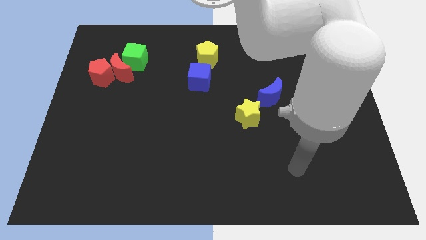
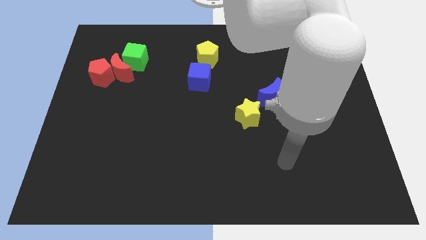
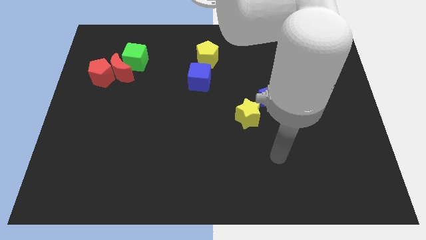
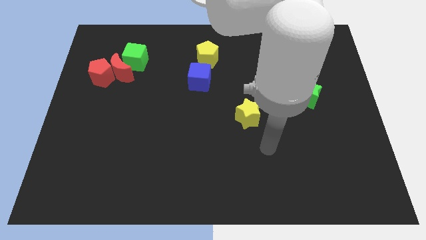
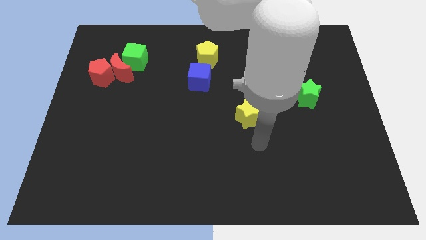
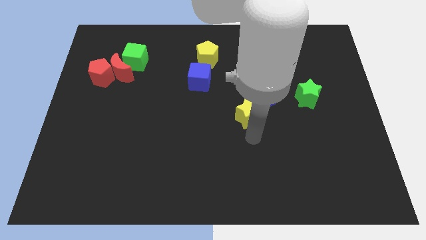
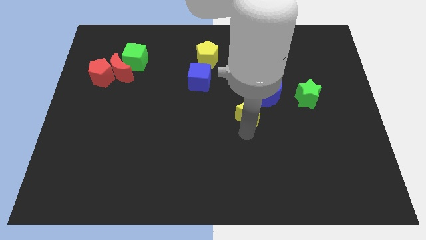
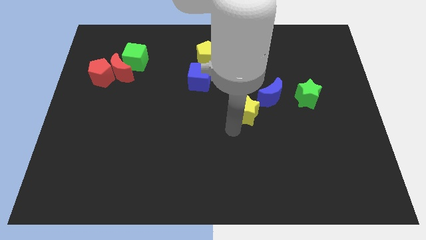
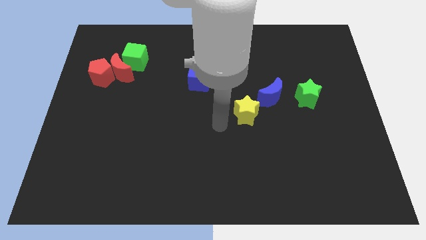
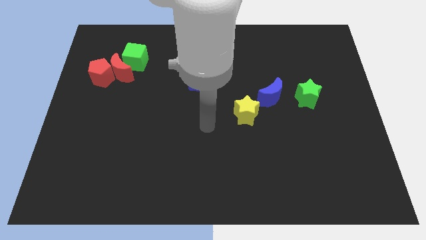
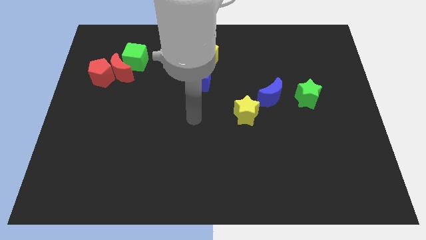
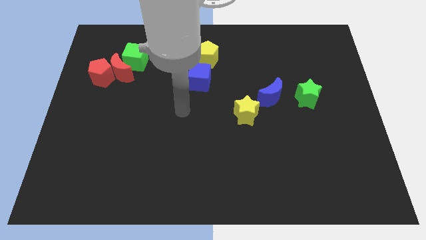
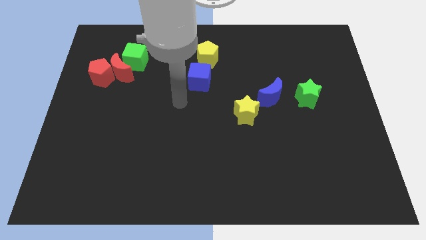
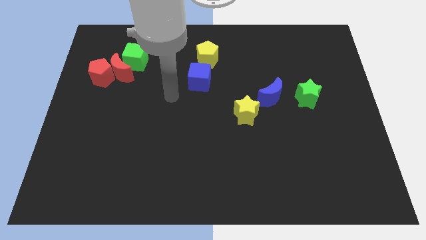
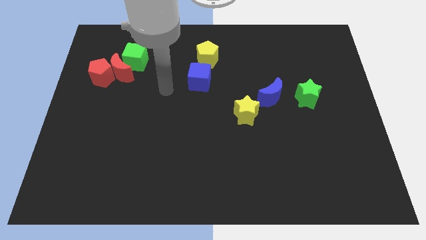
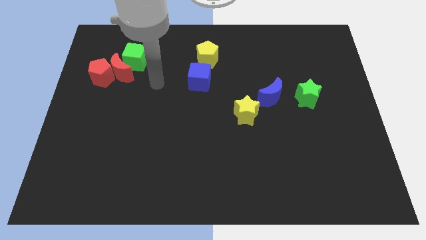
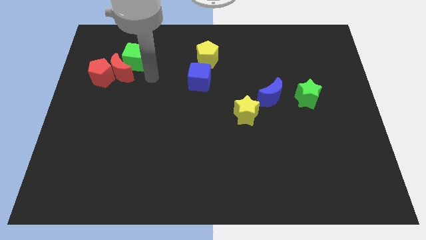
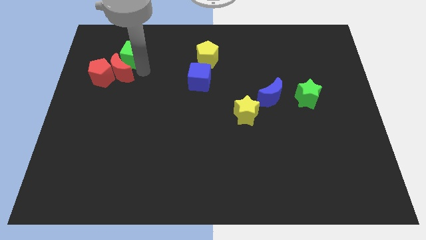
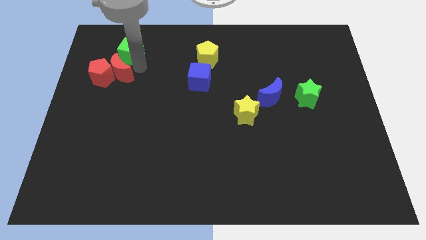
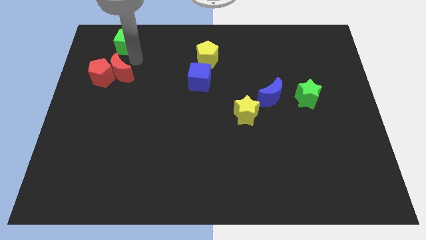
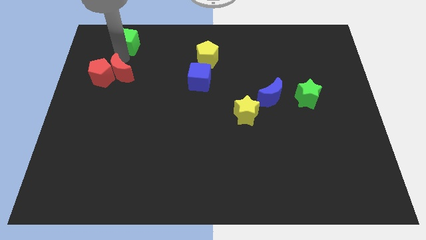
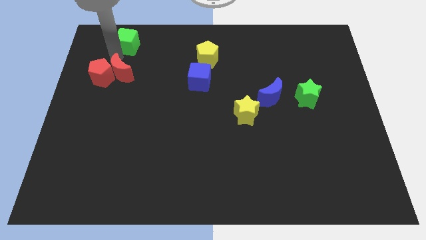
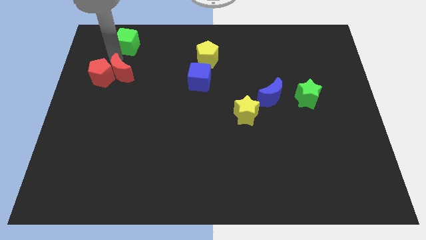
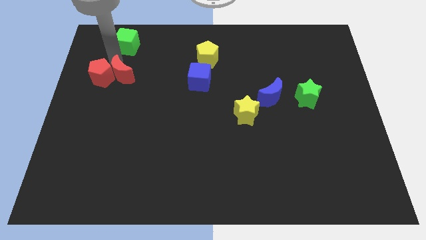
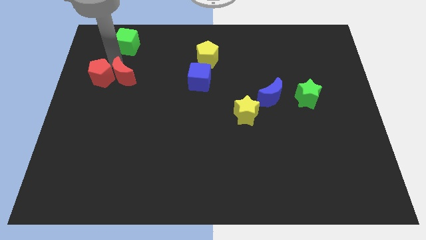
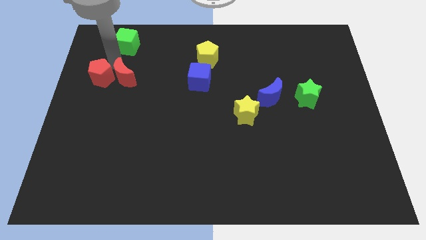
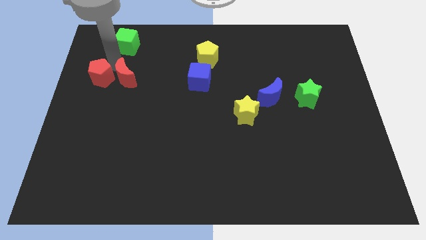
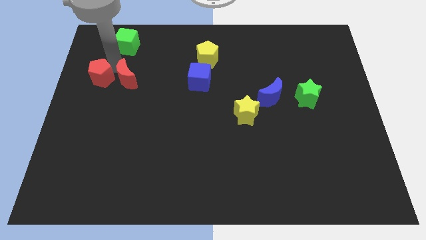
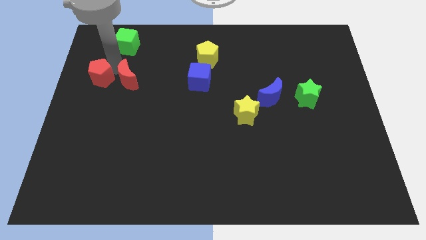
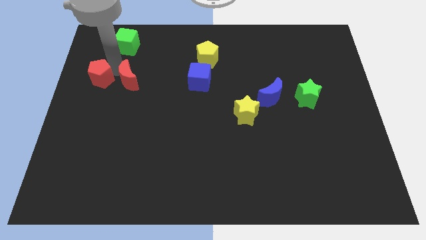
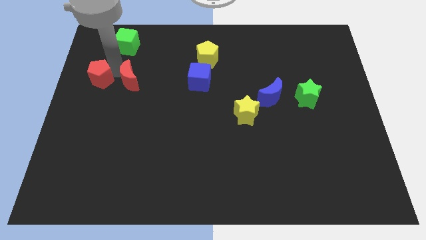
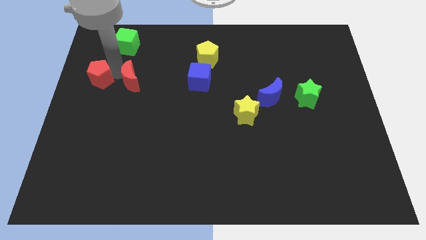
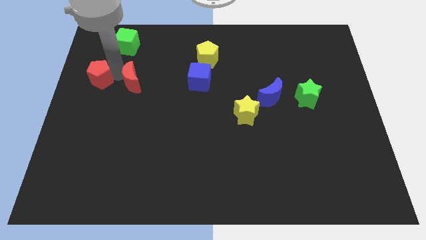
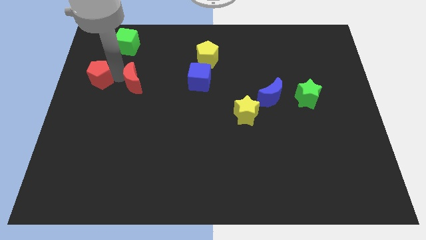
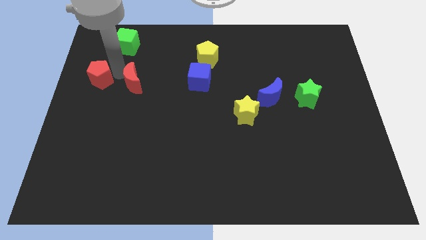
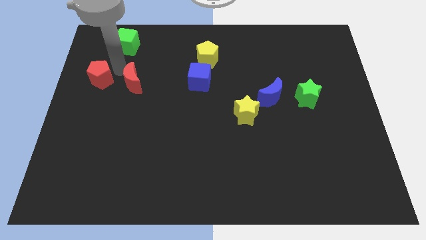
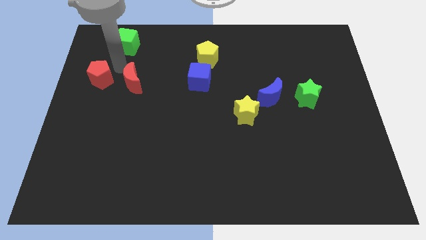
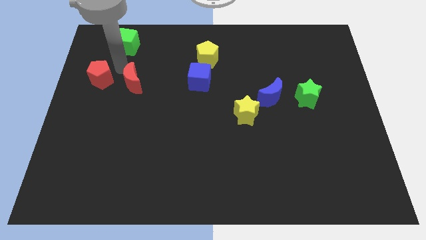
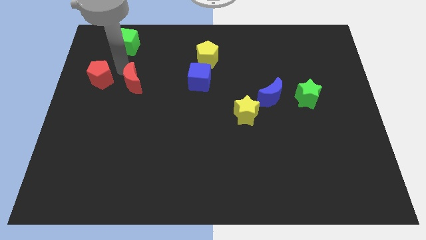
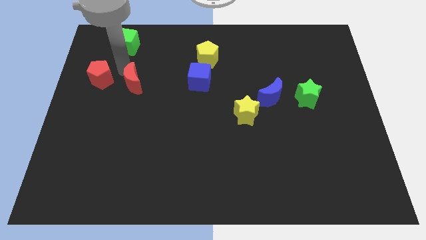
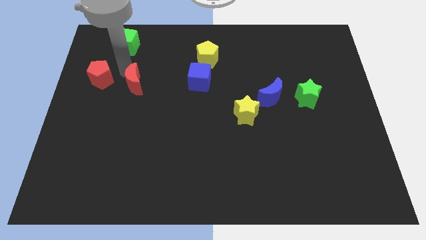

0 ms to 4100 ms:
separate the red moon from the red pentagon and green cube

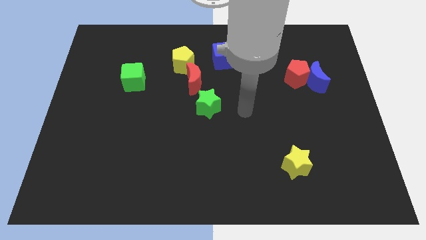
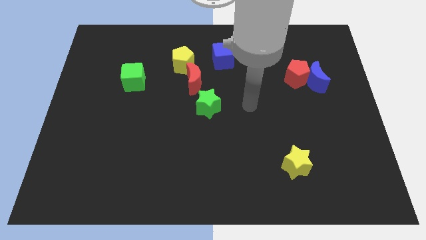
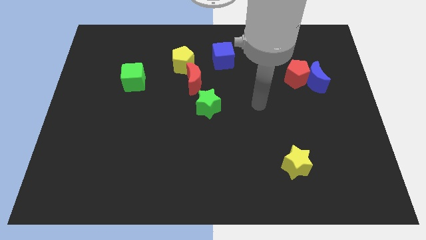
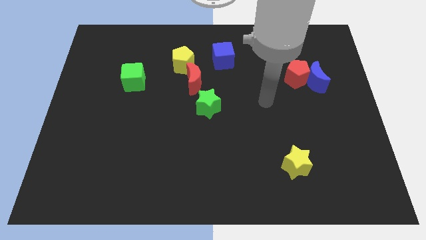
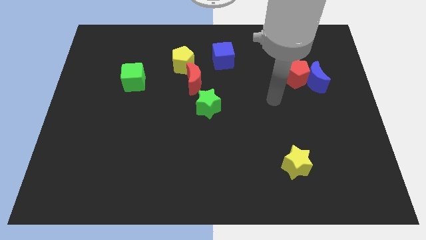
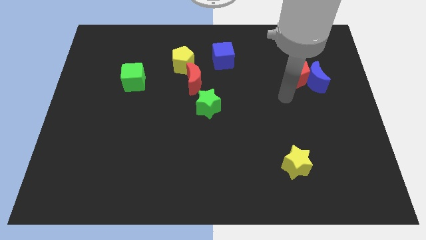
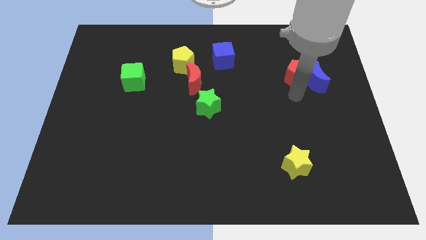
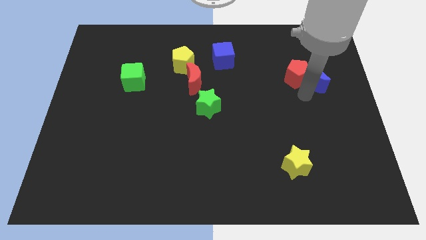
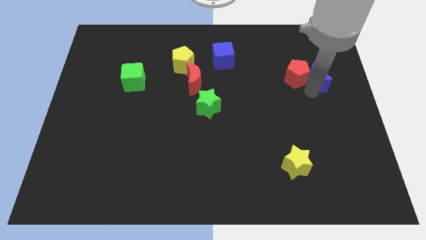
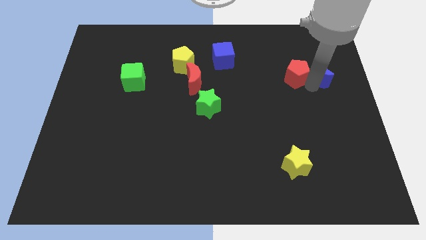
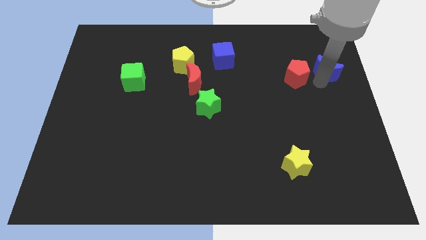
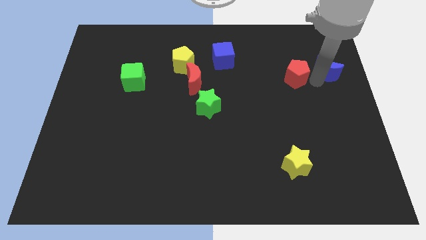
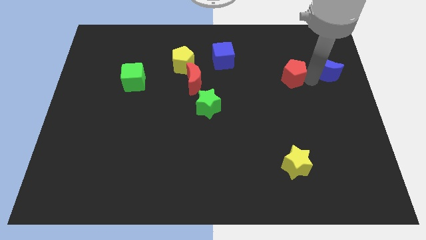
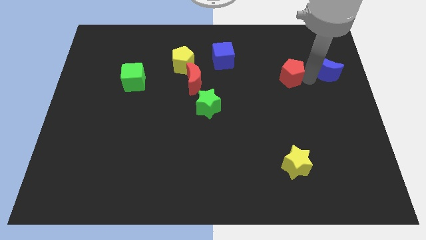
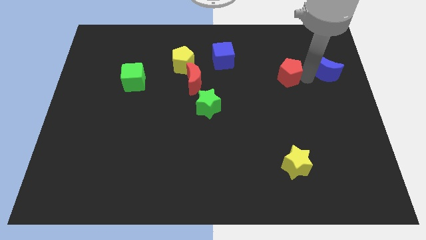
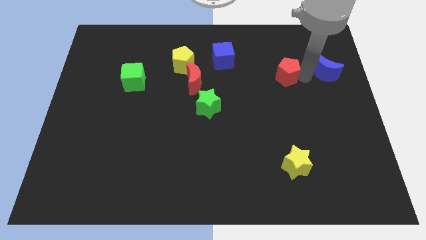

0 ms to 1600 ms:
move the red pentagon away from the blue moon

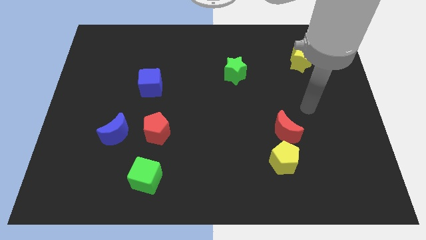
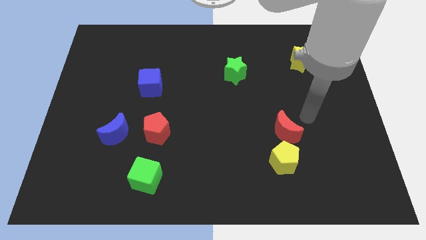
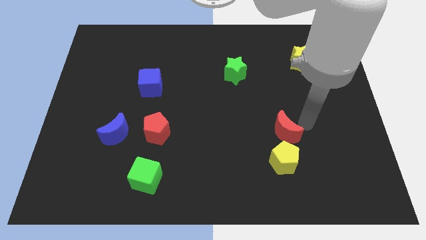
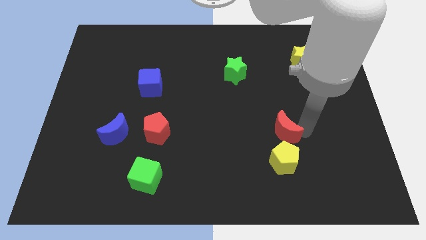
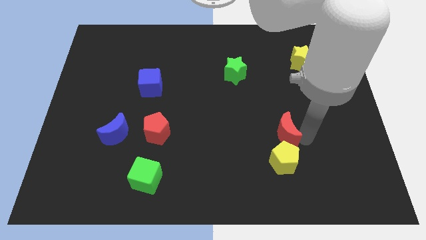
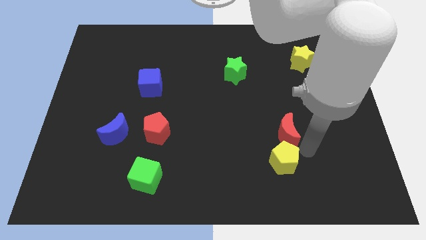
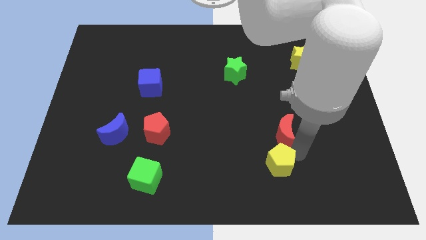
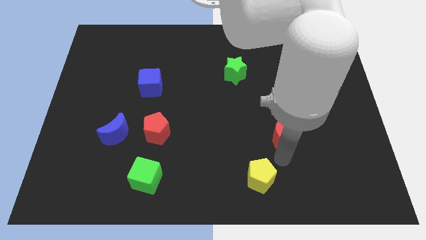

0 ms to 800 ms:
pull the red moon apart from the yellow pentagon

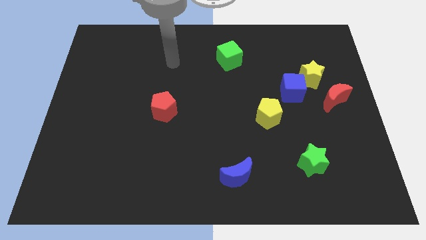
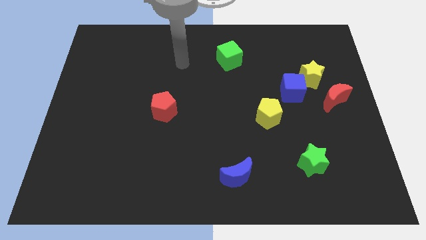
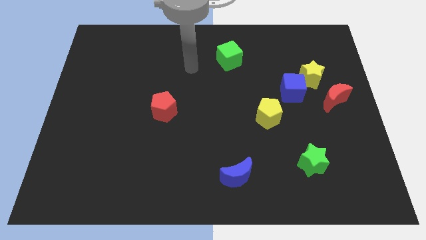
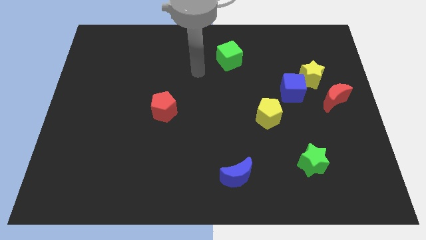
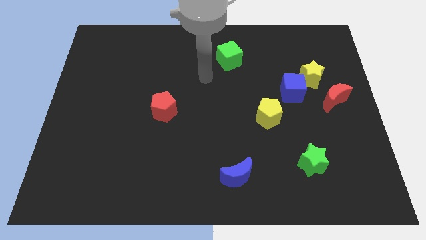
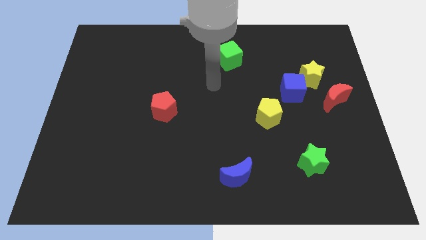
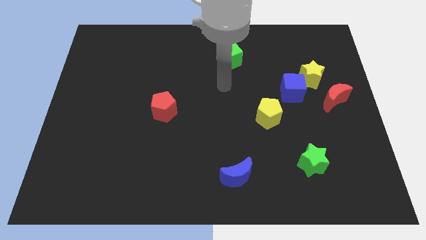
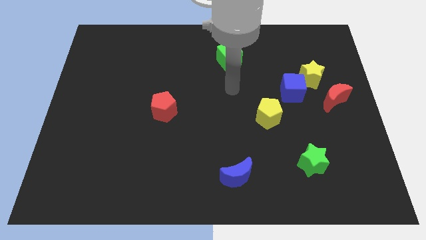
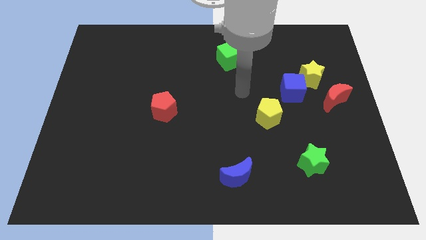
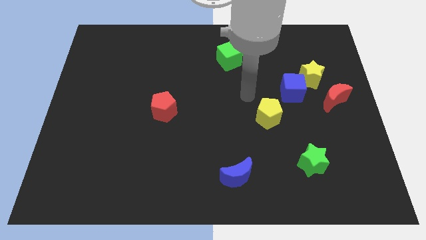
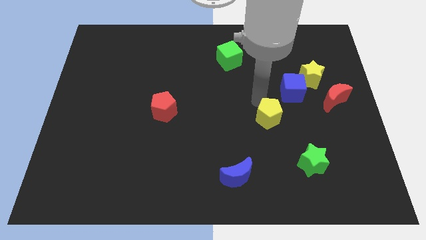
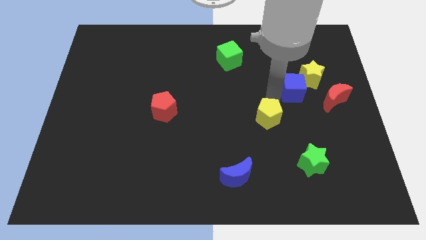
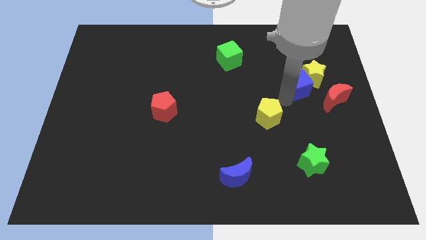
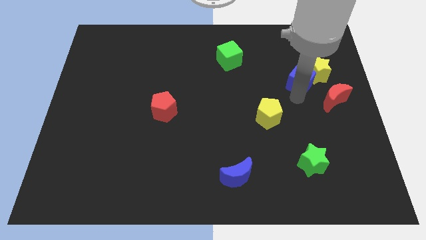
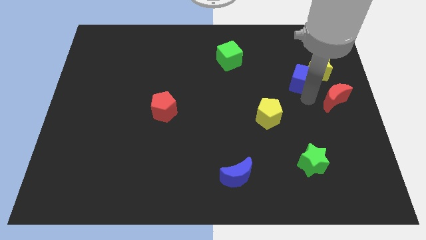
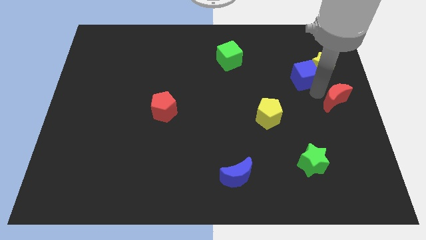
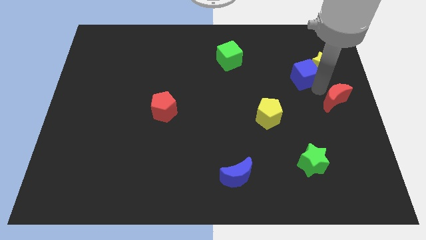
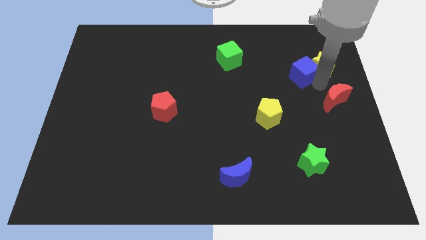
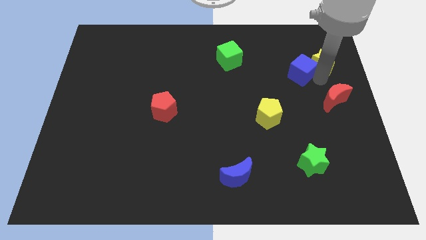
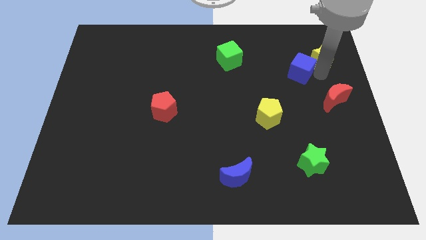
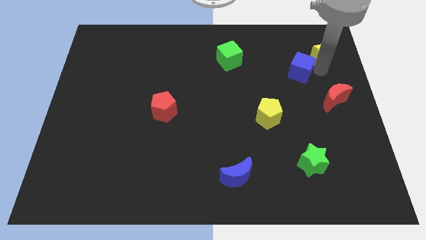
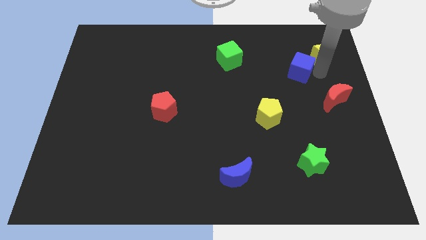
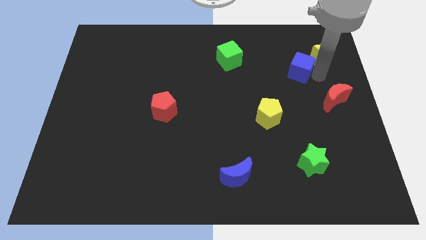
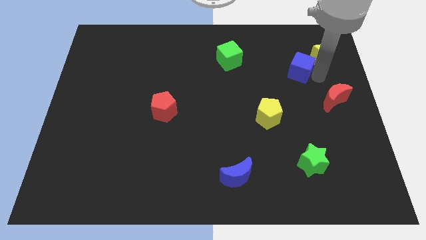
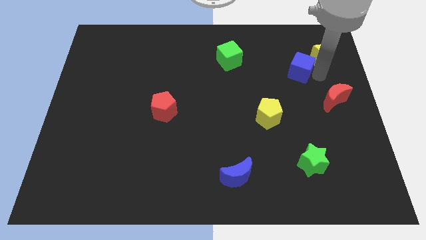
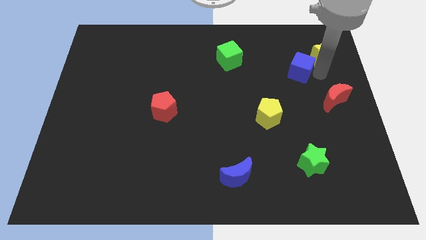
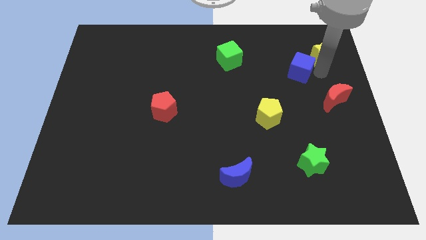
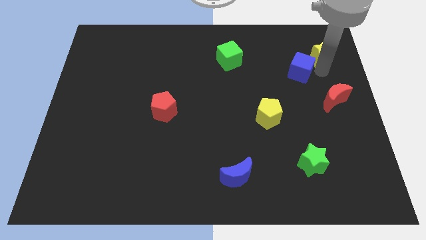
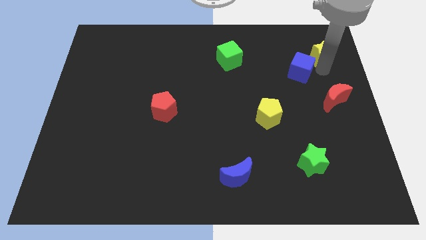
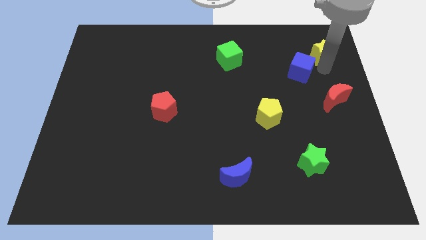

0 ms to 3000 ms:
move the yellow star away from the blue cube and red moon
